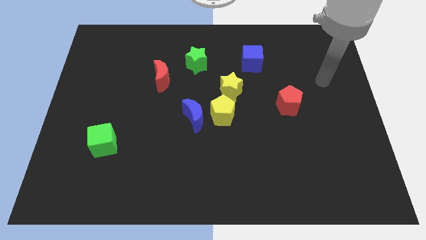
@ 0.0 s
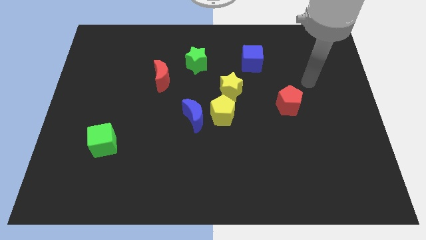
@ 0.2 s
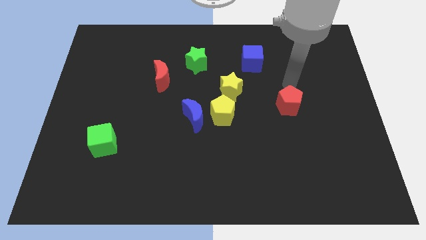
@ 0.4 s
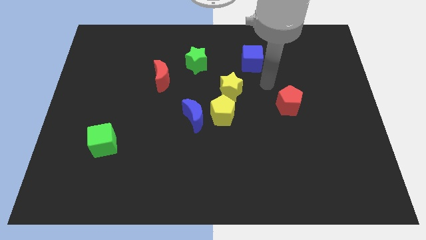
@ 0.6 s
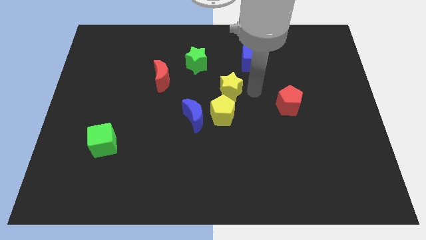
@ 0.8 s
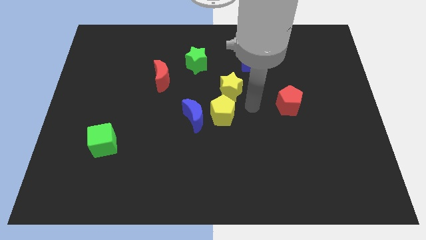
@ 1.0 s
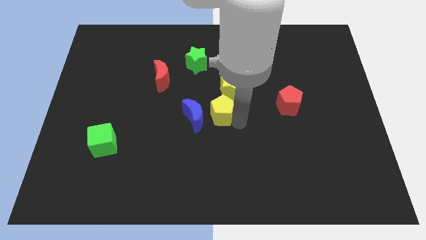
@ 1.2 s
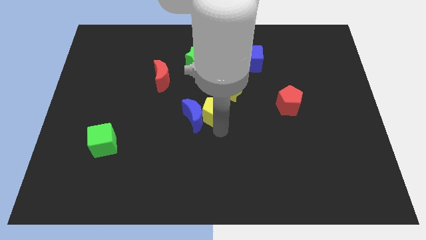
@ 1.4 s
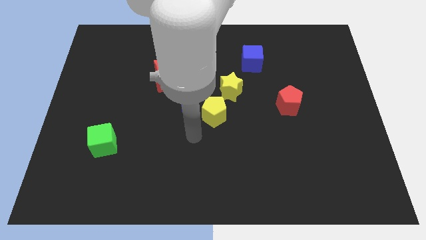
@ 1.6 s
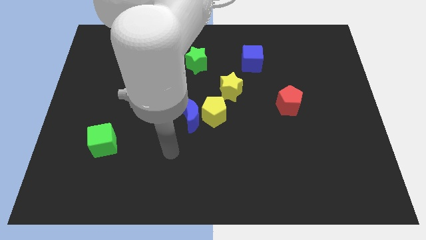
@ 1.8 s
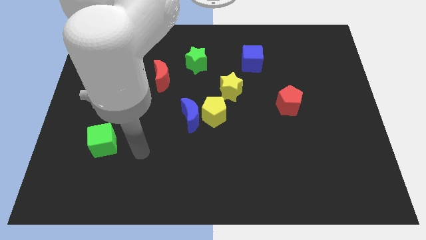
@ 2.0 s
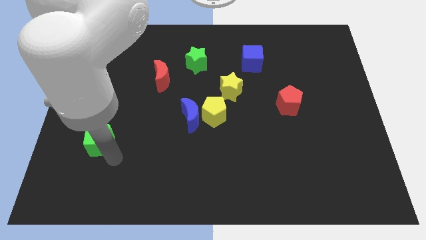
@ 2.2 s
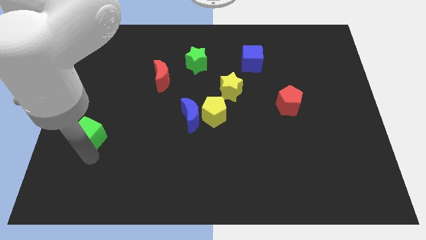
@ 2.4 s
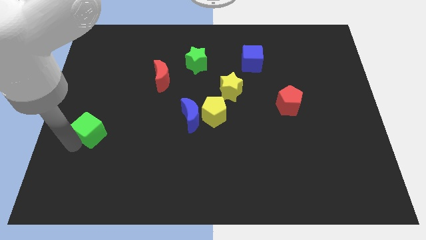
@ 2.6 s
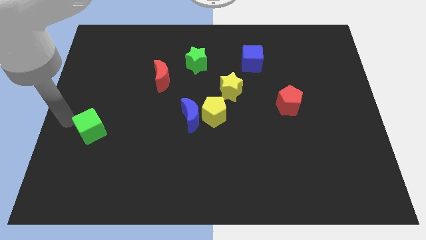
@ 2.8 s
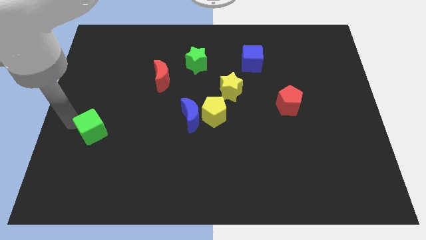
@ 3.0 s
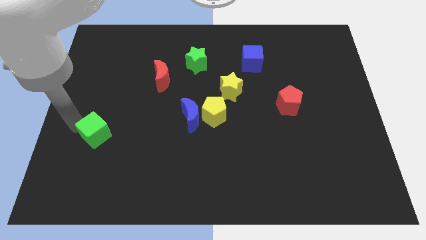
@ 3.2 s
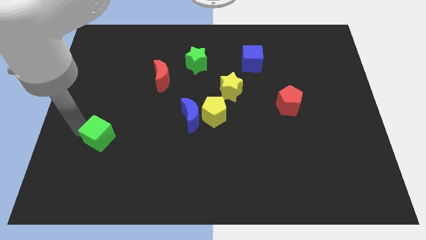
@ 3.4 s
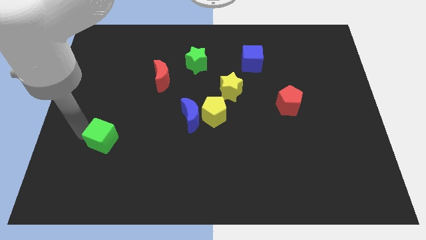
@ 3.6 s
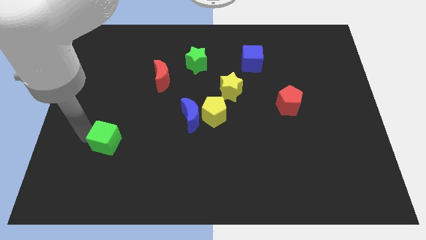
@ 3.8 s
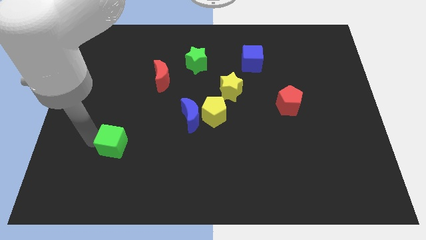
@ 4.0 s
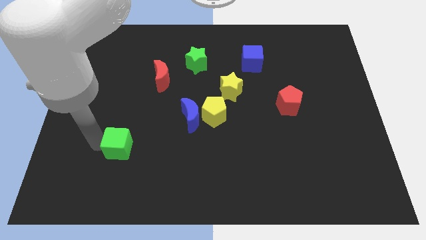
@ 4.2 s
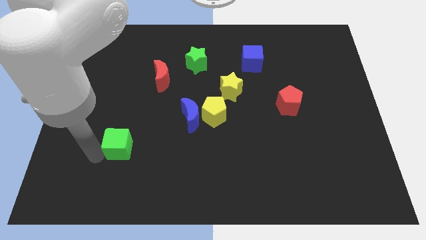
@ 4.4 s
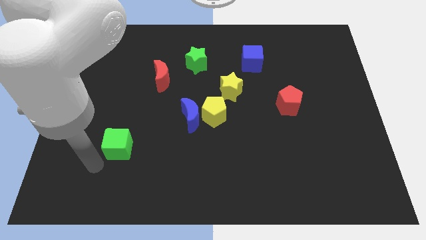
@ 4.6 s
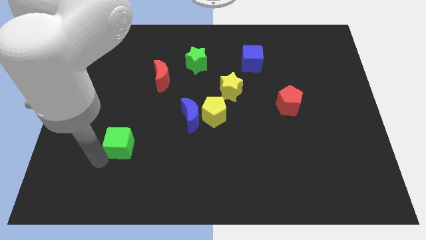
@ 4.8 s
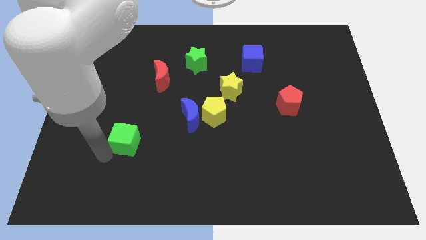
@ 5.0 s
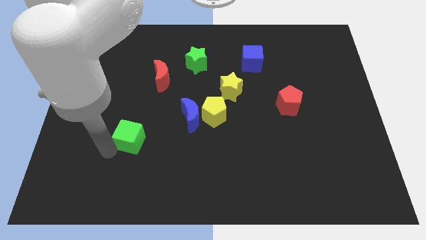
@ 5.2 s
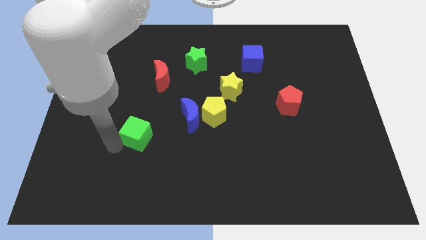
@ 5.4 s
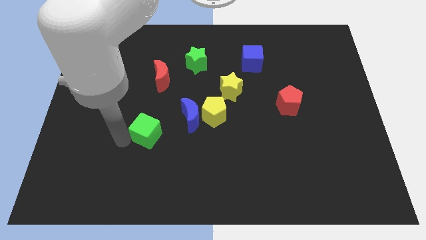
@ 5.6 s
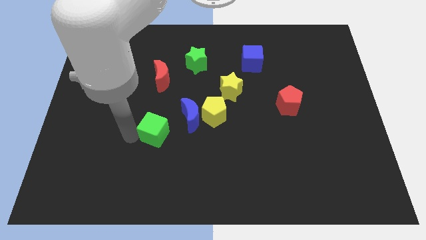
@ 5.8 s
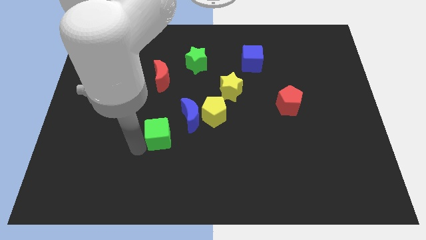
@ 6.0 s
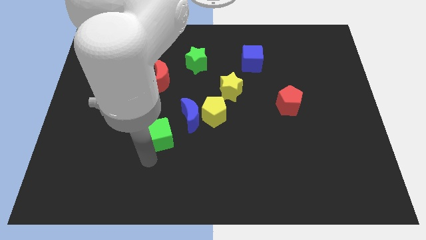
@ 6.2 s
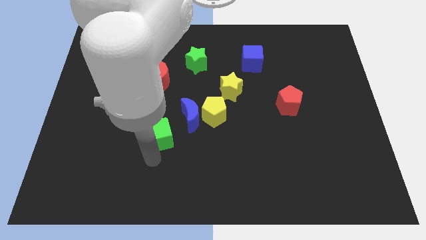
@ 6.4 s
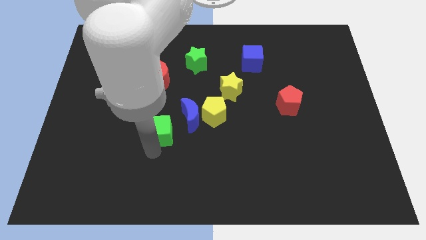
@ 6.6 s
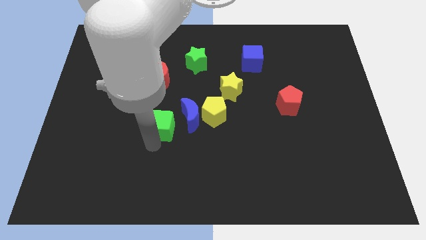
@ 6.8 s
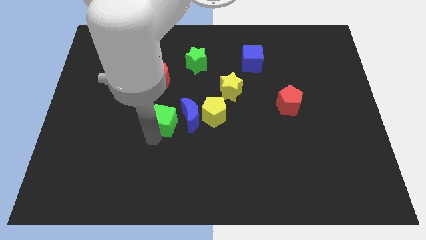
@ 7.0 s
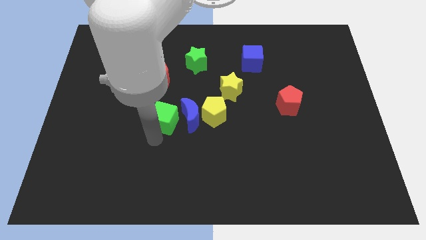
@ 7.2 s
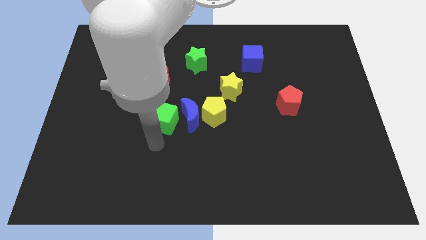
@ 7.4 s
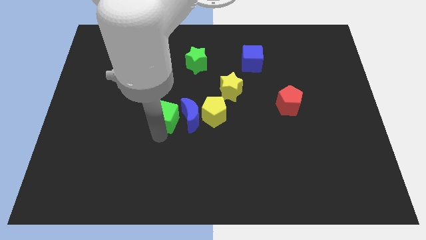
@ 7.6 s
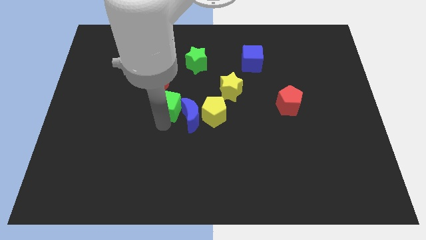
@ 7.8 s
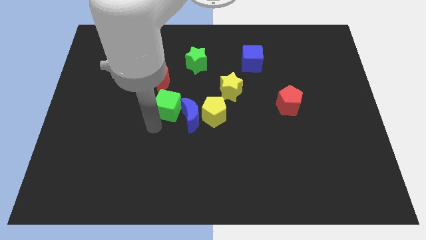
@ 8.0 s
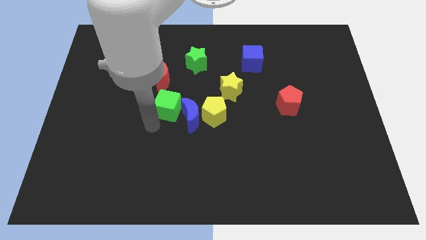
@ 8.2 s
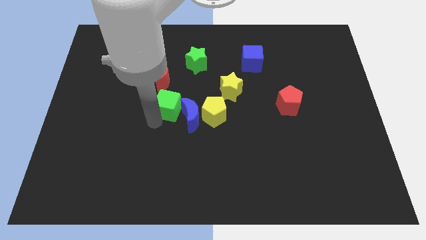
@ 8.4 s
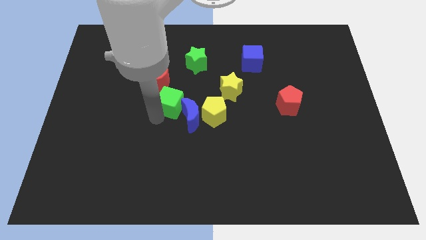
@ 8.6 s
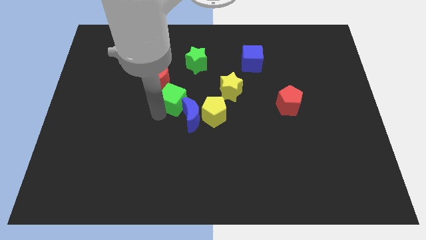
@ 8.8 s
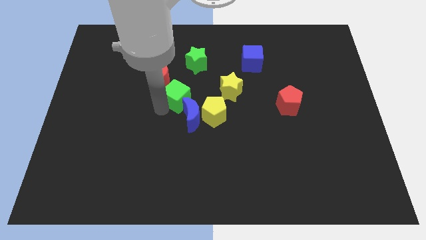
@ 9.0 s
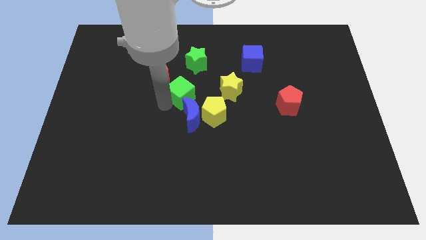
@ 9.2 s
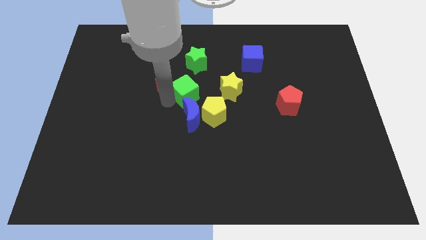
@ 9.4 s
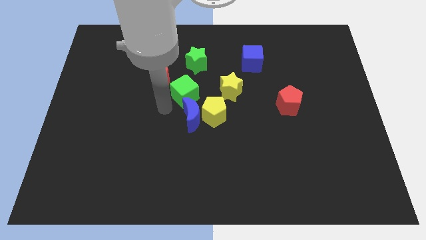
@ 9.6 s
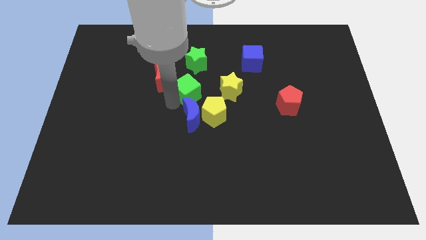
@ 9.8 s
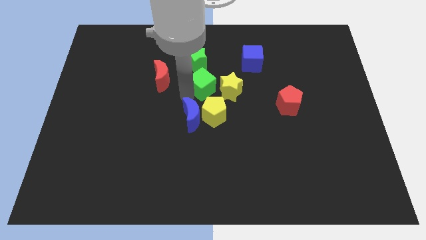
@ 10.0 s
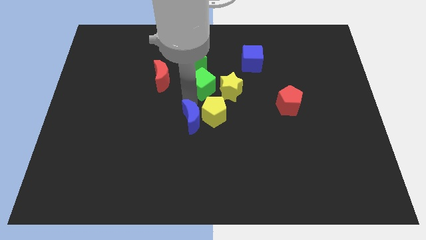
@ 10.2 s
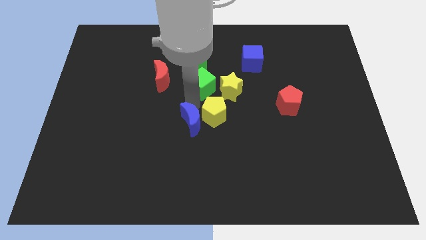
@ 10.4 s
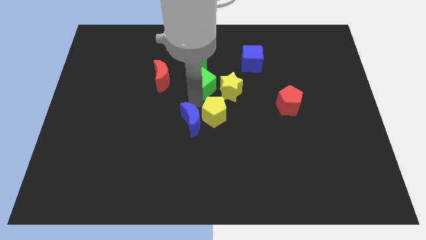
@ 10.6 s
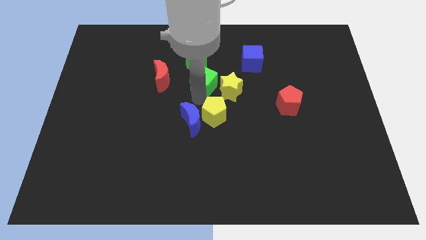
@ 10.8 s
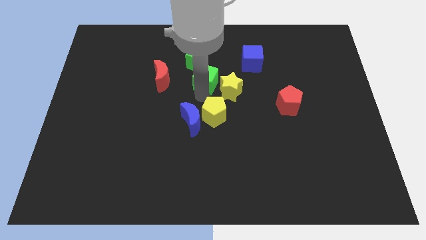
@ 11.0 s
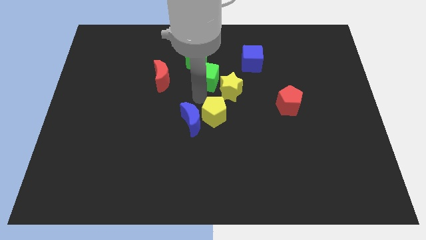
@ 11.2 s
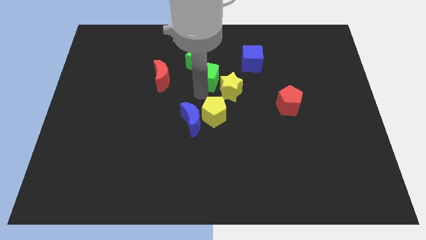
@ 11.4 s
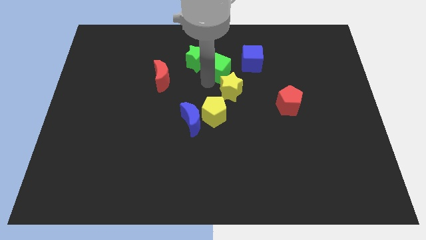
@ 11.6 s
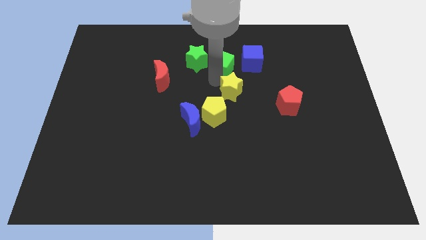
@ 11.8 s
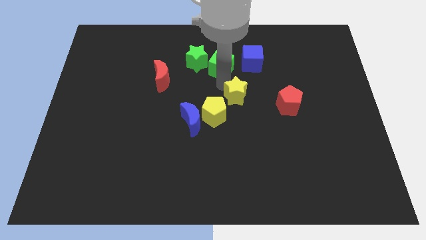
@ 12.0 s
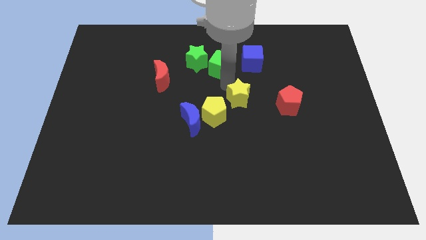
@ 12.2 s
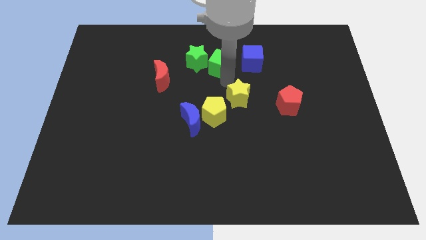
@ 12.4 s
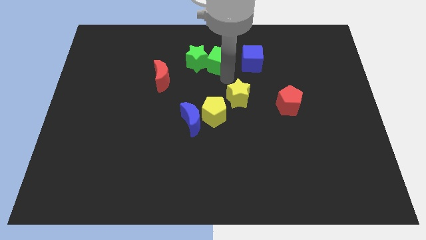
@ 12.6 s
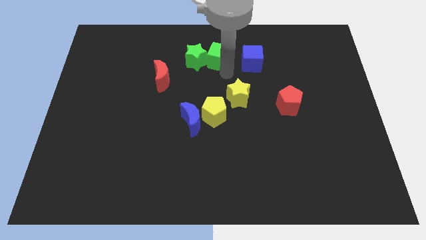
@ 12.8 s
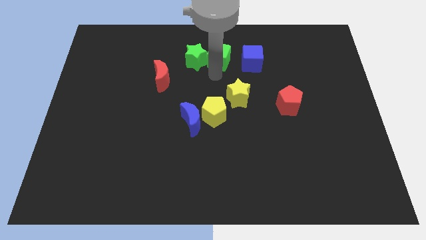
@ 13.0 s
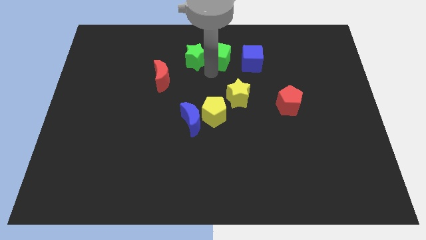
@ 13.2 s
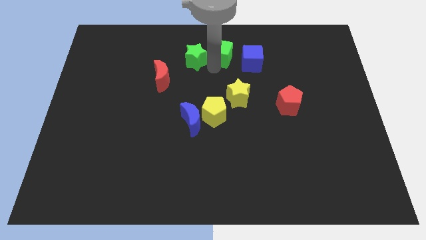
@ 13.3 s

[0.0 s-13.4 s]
push the green cube to the top
